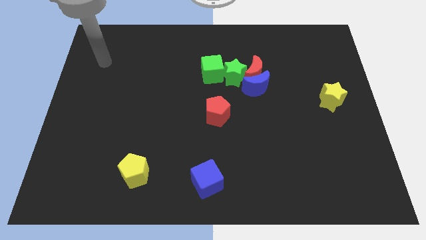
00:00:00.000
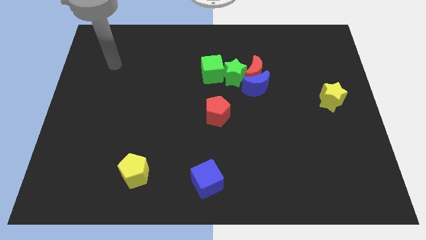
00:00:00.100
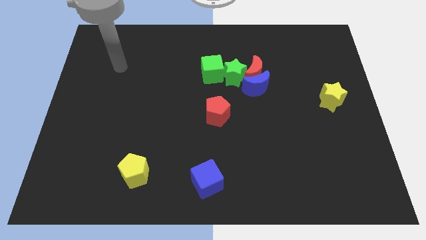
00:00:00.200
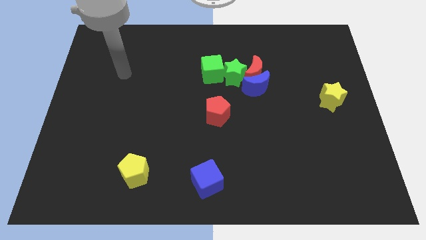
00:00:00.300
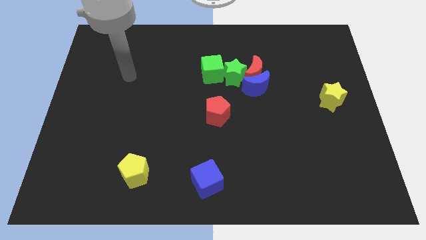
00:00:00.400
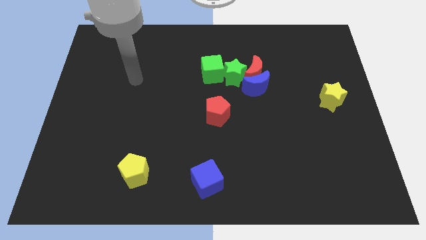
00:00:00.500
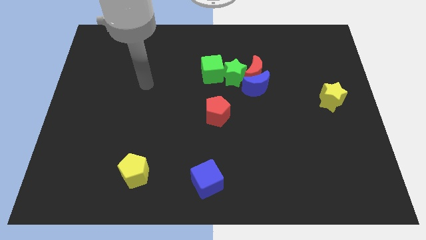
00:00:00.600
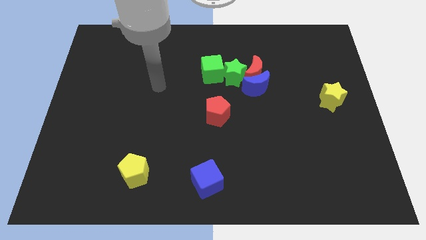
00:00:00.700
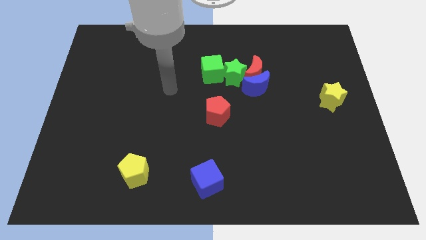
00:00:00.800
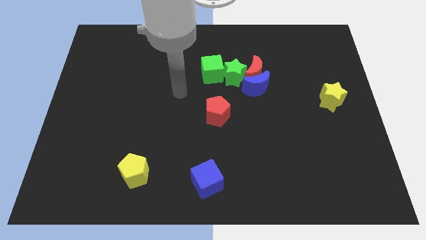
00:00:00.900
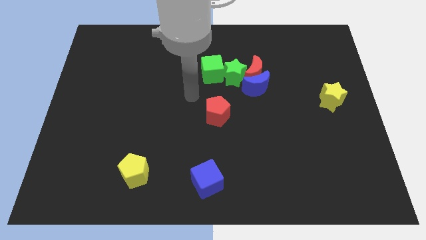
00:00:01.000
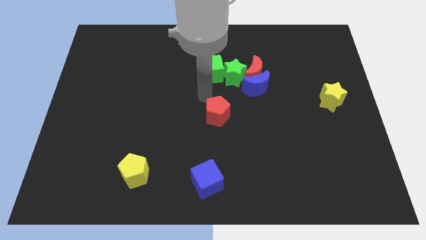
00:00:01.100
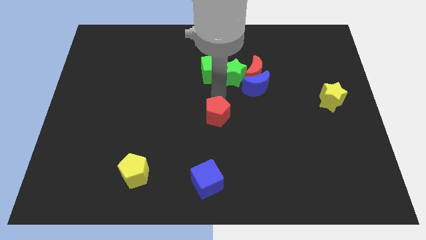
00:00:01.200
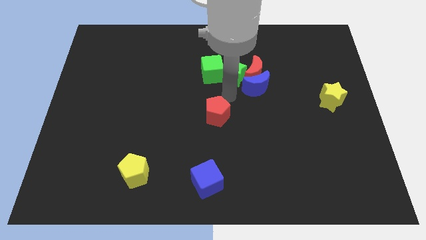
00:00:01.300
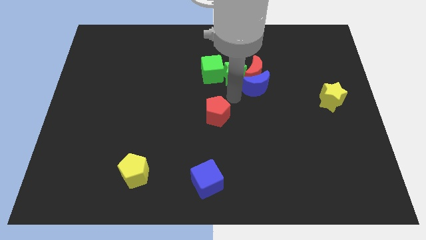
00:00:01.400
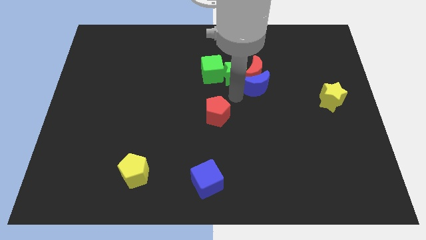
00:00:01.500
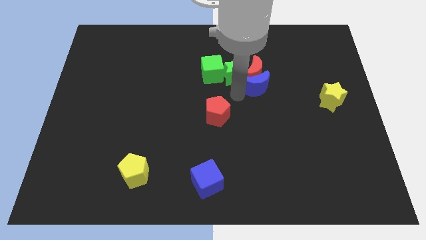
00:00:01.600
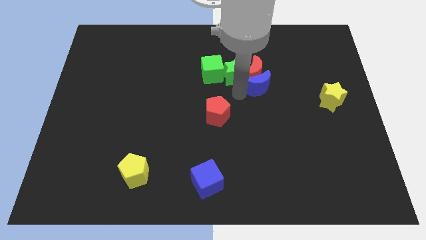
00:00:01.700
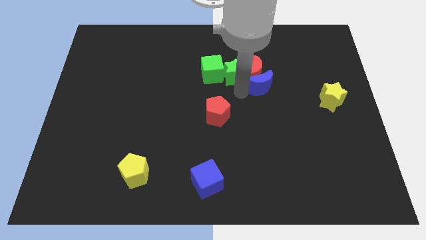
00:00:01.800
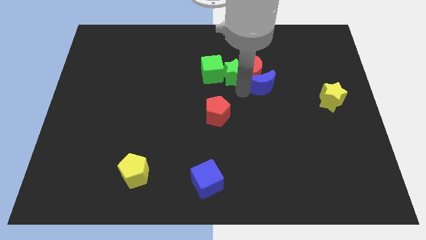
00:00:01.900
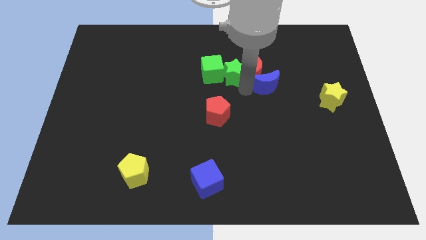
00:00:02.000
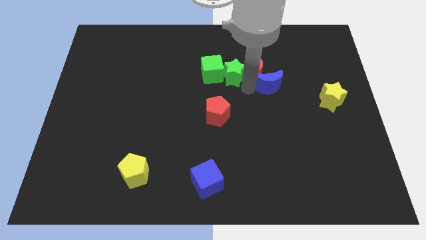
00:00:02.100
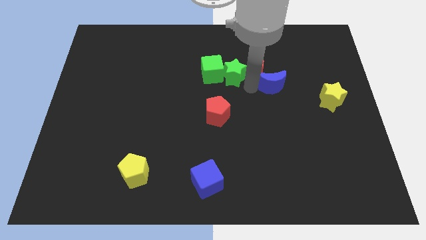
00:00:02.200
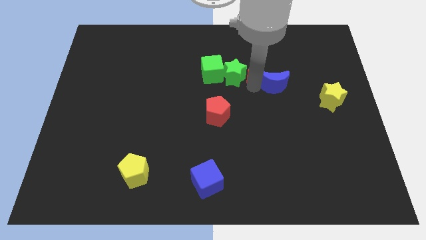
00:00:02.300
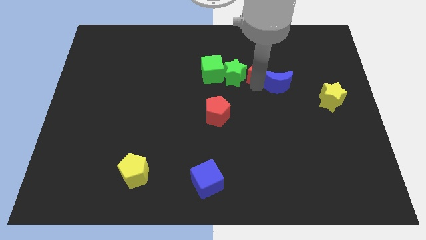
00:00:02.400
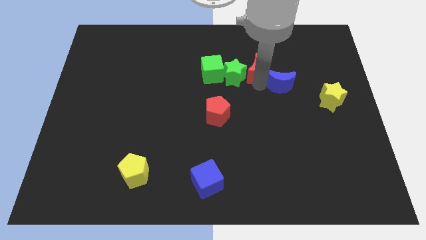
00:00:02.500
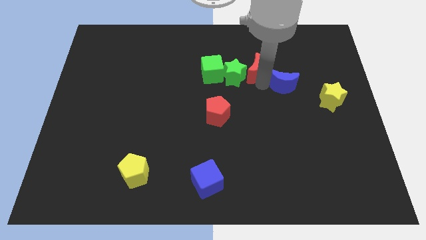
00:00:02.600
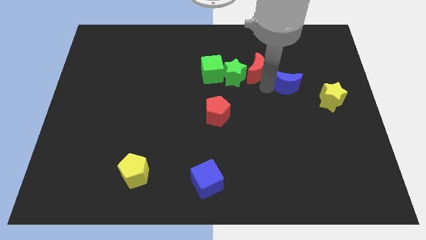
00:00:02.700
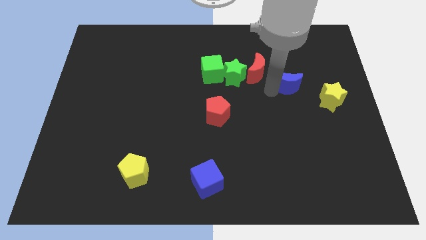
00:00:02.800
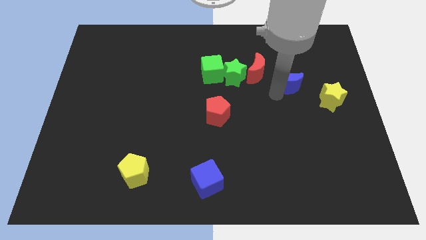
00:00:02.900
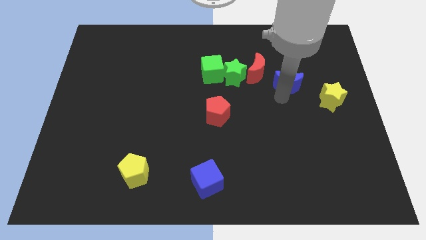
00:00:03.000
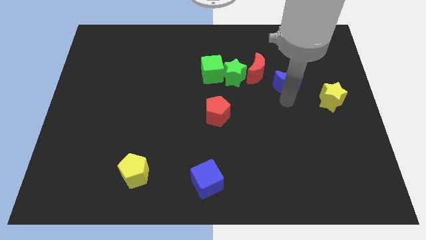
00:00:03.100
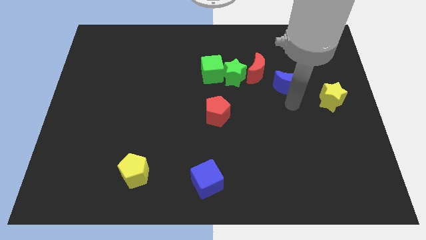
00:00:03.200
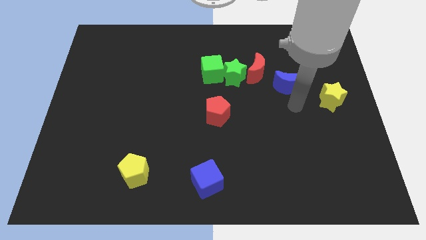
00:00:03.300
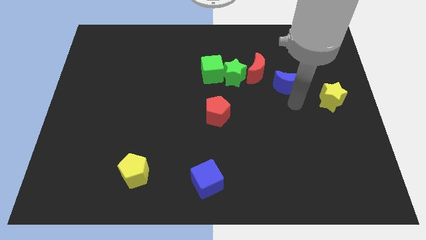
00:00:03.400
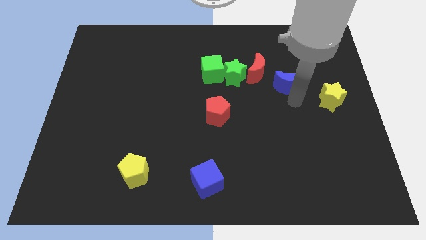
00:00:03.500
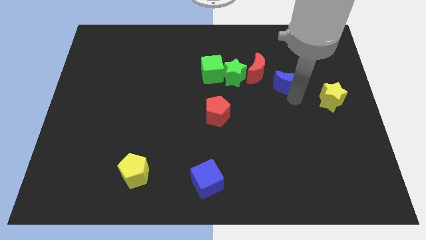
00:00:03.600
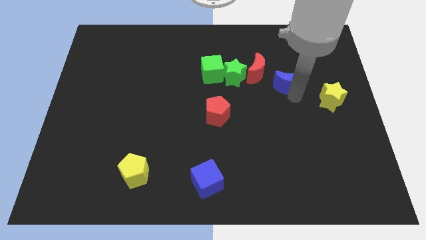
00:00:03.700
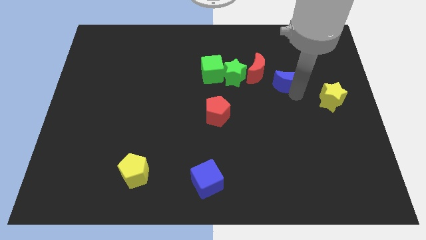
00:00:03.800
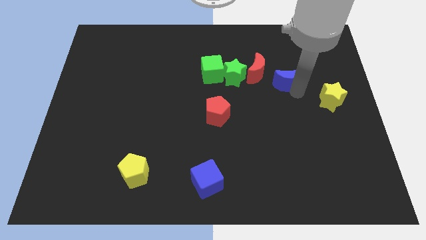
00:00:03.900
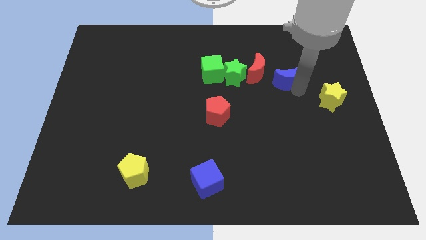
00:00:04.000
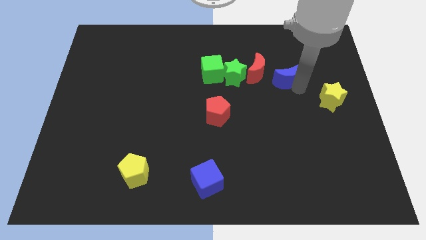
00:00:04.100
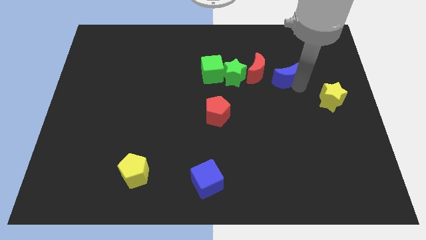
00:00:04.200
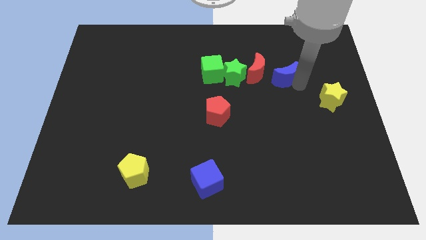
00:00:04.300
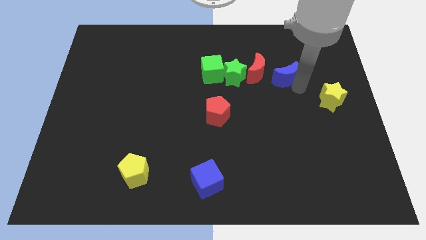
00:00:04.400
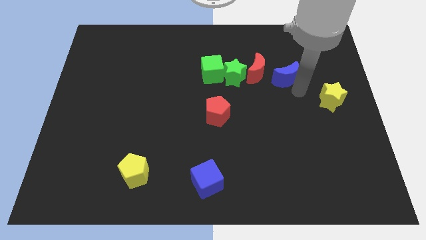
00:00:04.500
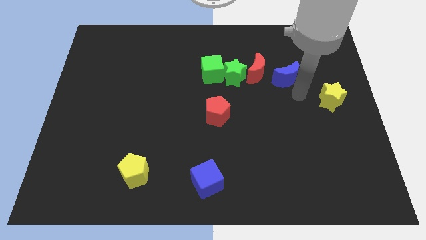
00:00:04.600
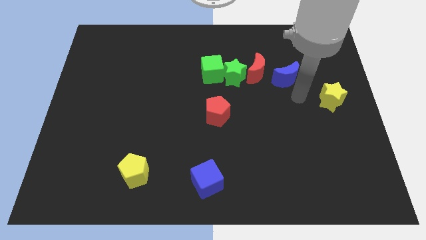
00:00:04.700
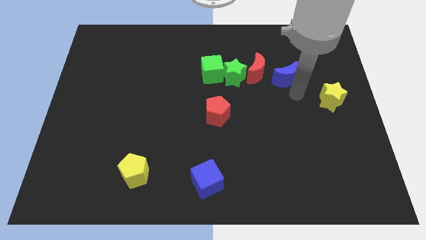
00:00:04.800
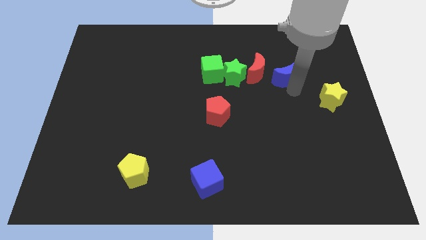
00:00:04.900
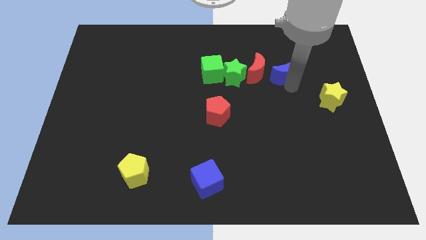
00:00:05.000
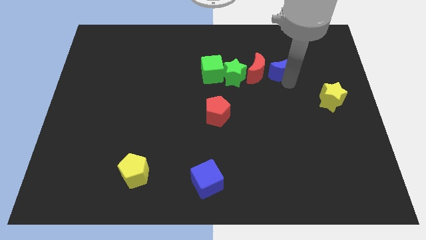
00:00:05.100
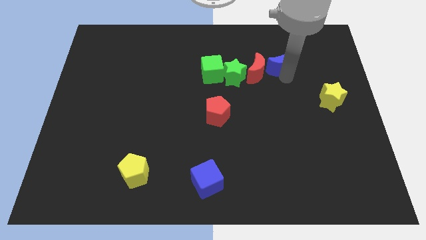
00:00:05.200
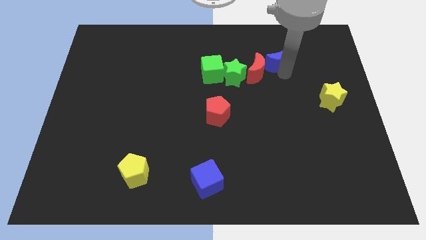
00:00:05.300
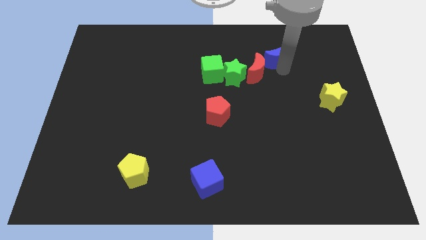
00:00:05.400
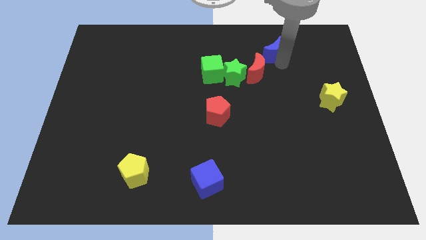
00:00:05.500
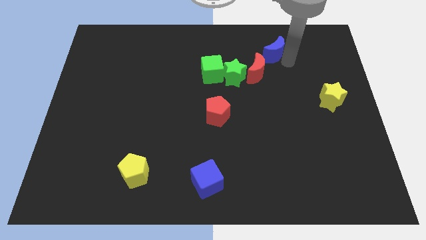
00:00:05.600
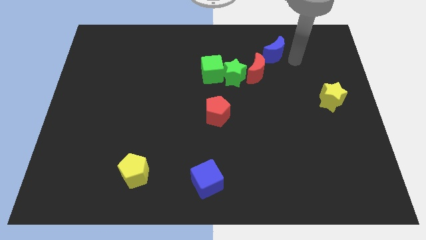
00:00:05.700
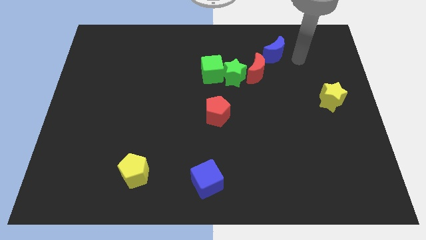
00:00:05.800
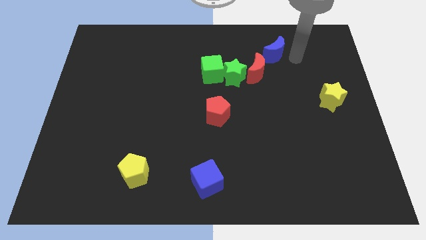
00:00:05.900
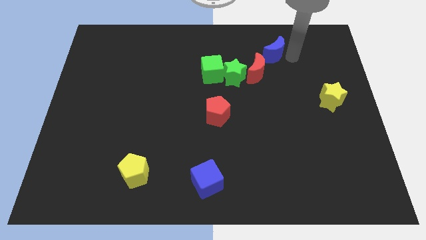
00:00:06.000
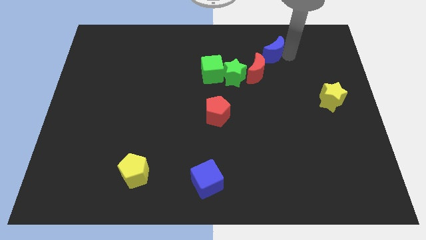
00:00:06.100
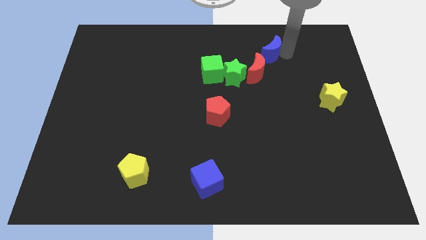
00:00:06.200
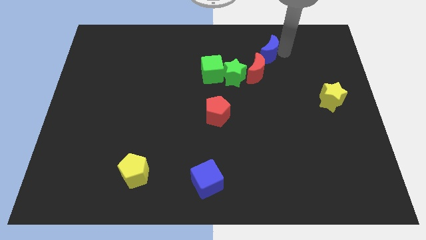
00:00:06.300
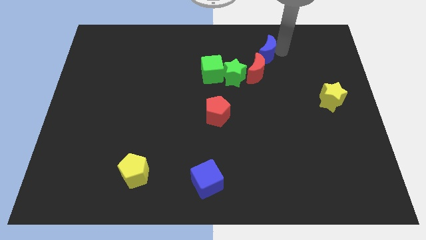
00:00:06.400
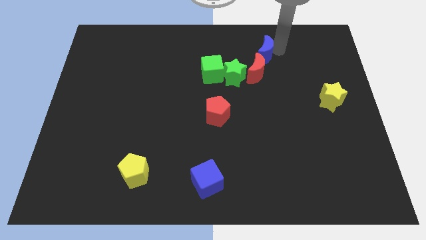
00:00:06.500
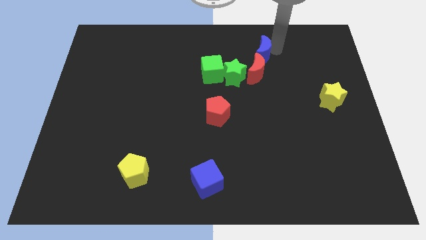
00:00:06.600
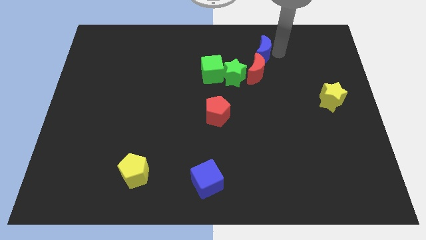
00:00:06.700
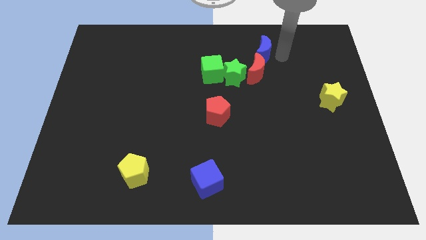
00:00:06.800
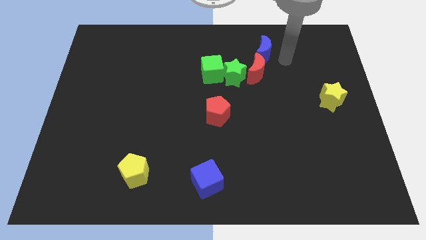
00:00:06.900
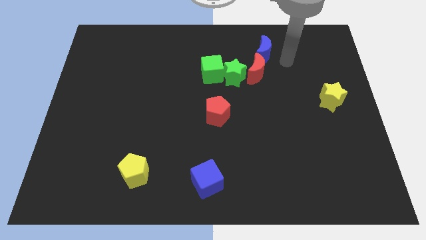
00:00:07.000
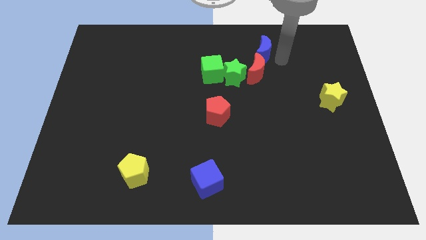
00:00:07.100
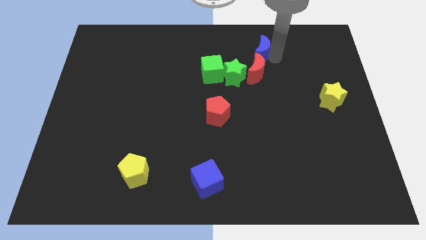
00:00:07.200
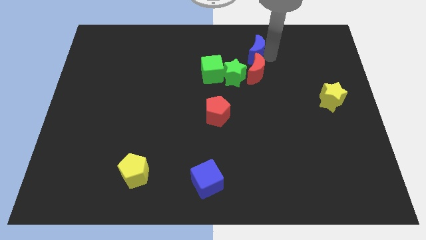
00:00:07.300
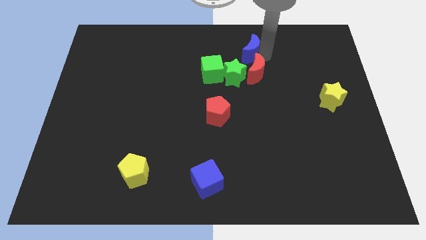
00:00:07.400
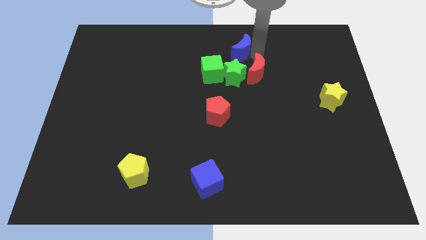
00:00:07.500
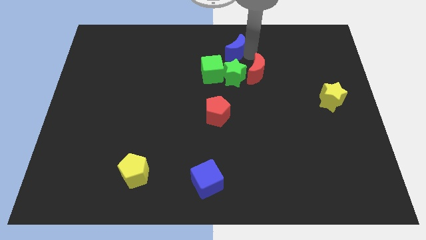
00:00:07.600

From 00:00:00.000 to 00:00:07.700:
slide the blue moon to the towards your base
